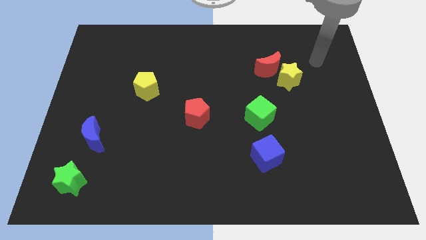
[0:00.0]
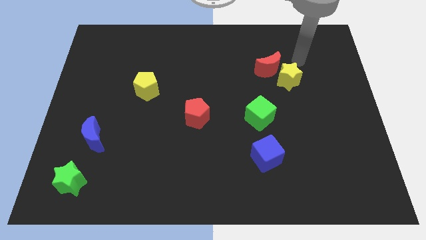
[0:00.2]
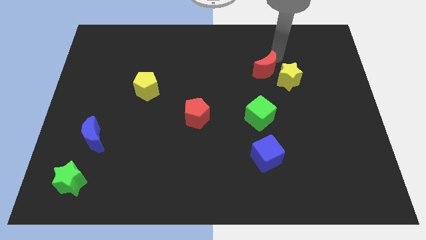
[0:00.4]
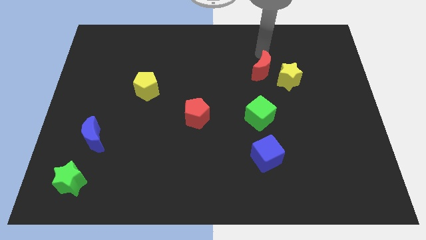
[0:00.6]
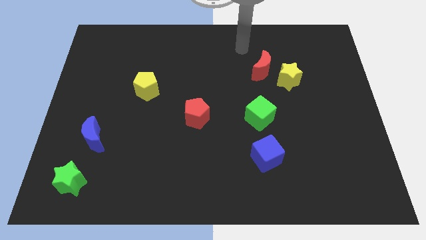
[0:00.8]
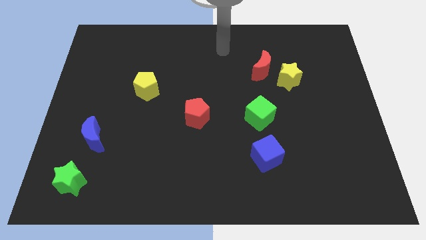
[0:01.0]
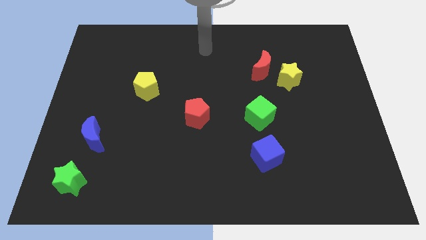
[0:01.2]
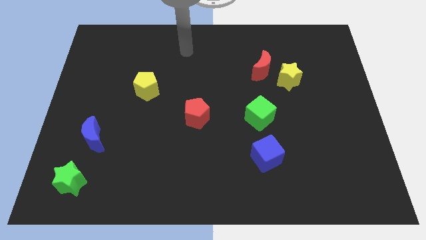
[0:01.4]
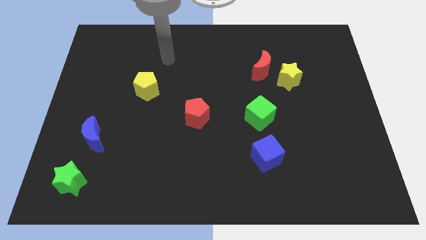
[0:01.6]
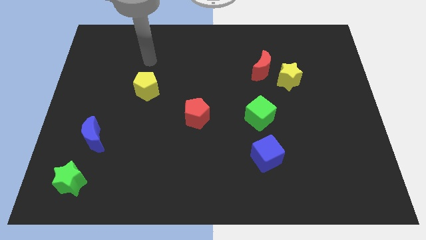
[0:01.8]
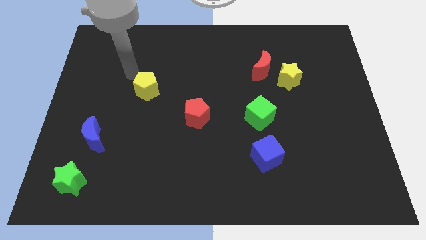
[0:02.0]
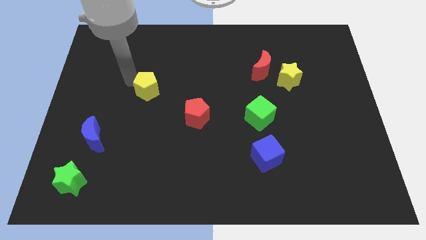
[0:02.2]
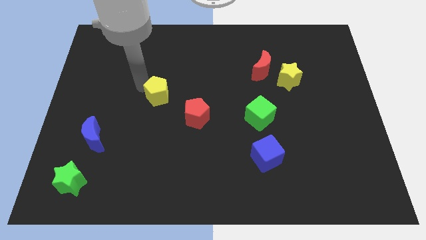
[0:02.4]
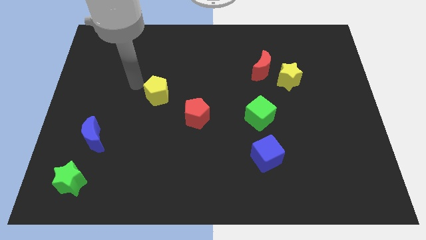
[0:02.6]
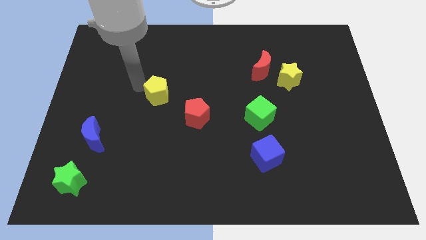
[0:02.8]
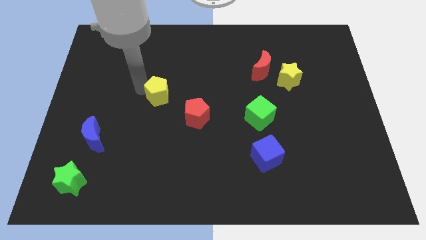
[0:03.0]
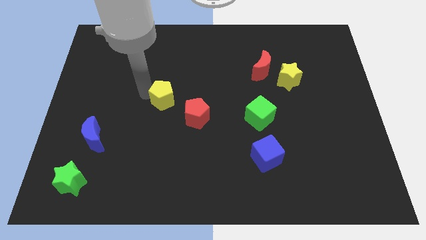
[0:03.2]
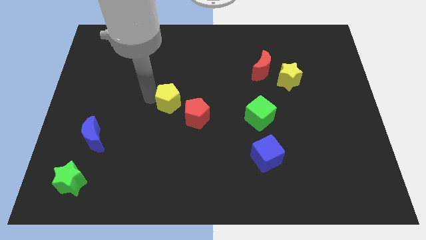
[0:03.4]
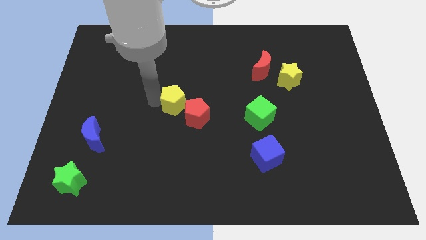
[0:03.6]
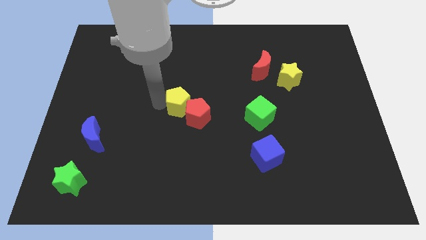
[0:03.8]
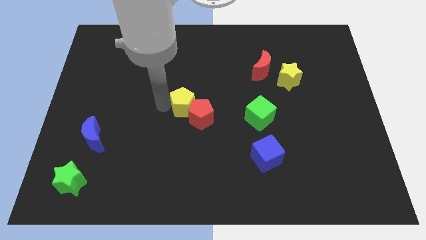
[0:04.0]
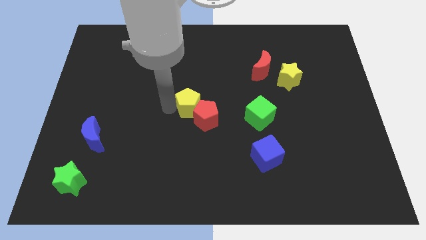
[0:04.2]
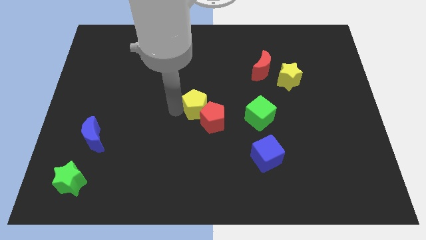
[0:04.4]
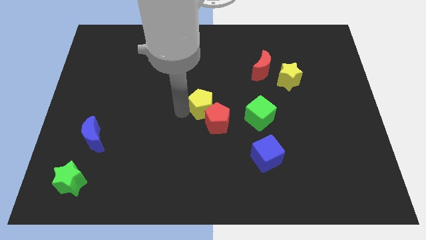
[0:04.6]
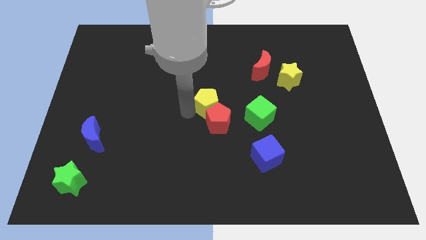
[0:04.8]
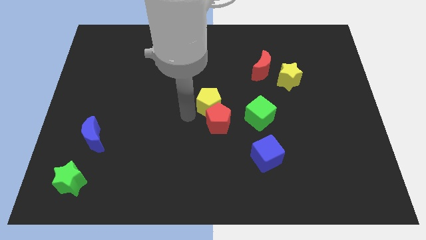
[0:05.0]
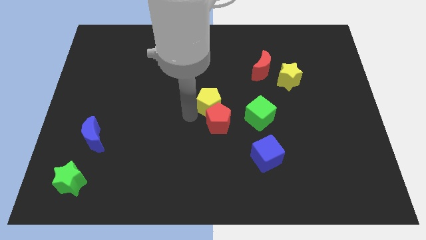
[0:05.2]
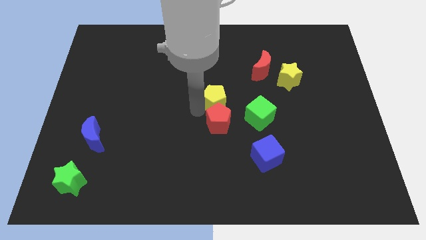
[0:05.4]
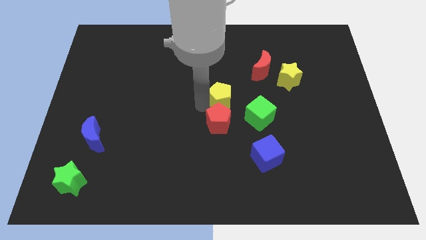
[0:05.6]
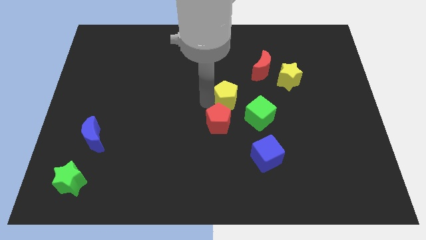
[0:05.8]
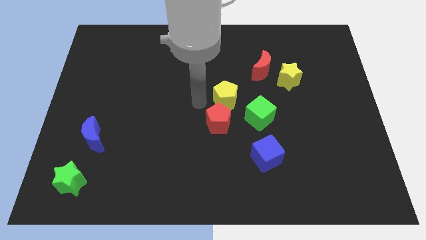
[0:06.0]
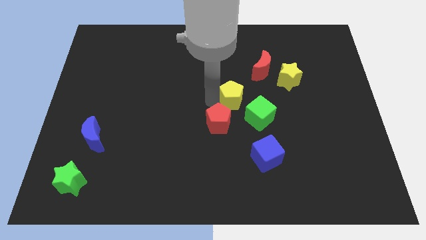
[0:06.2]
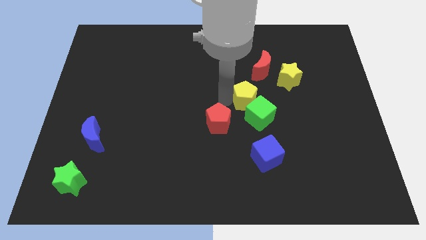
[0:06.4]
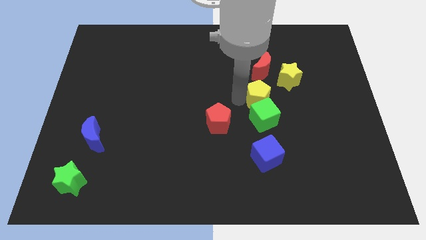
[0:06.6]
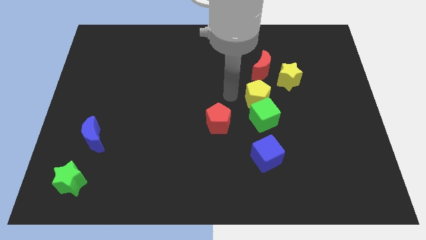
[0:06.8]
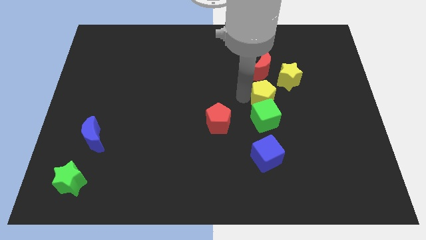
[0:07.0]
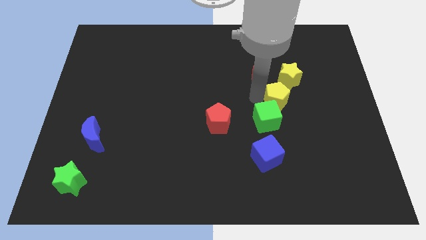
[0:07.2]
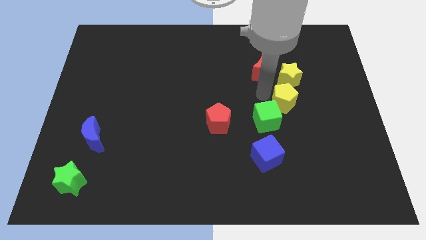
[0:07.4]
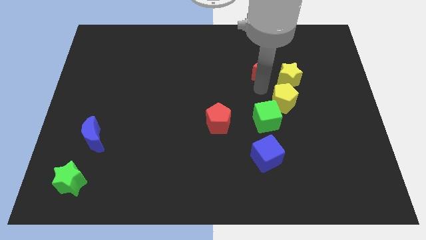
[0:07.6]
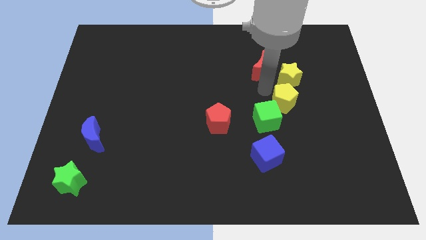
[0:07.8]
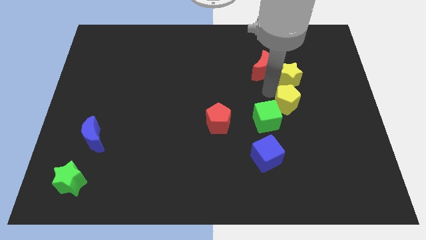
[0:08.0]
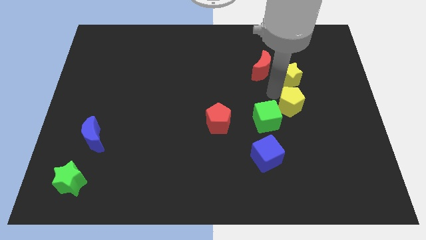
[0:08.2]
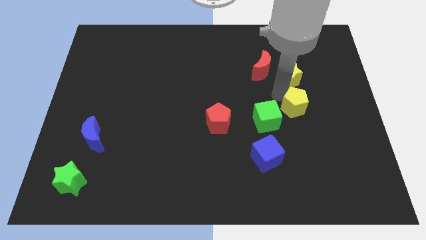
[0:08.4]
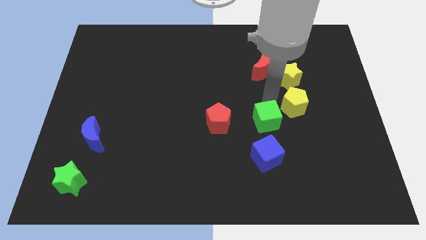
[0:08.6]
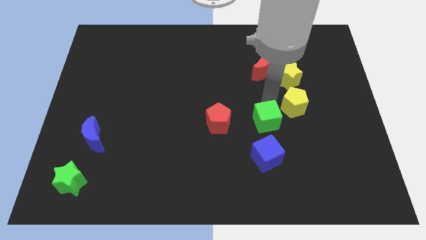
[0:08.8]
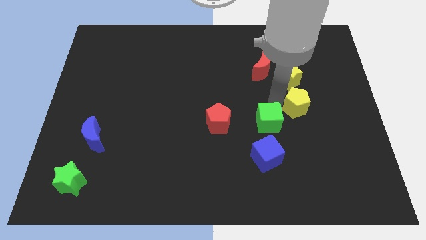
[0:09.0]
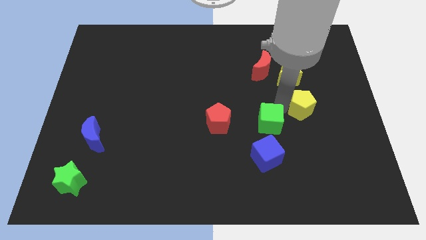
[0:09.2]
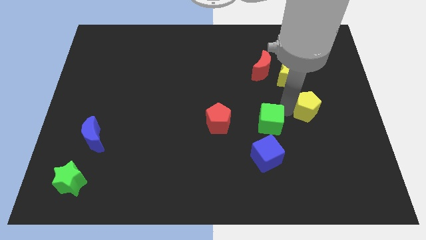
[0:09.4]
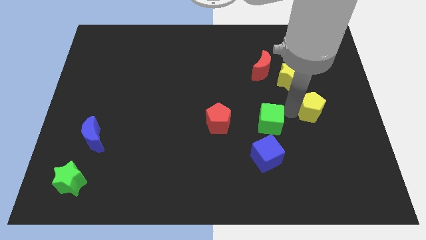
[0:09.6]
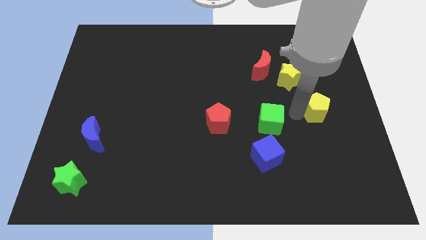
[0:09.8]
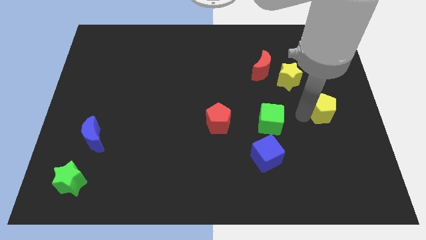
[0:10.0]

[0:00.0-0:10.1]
push the yellow pentagon to the right side
